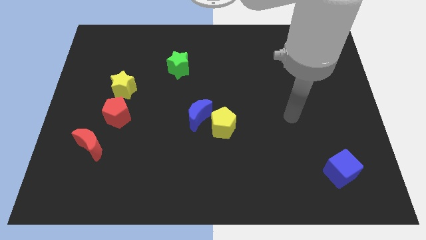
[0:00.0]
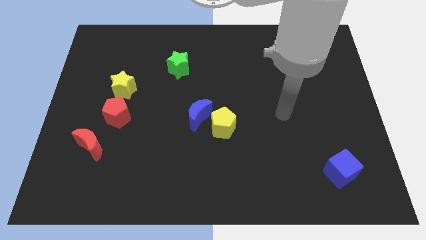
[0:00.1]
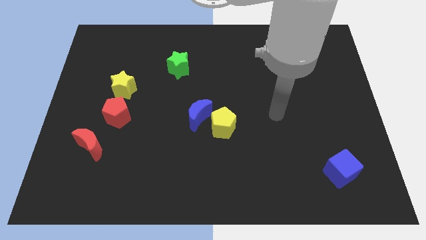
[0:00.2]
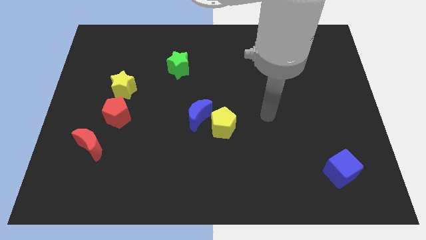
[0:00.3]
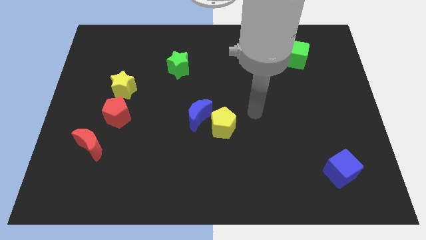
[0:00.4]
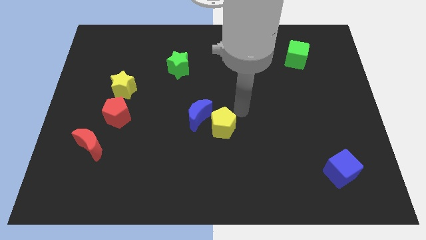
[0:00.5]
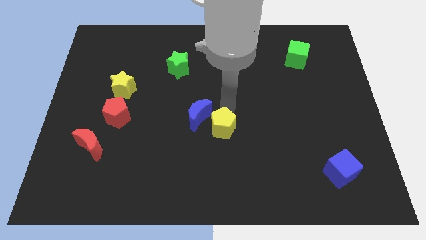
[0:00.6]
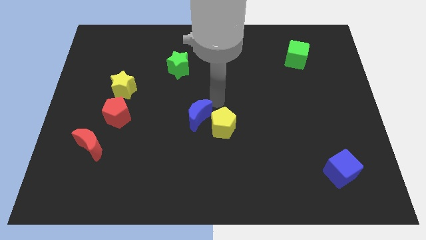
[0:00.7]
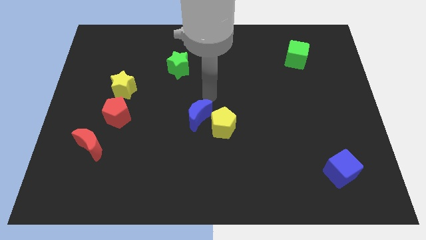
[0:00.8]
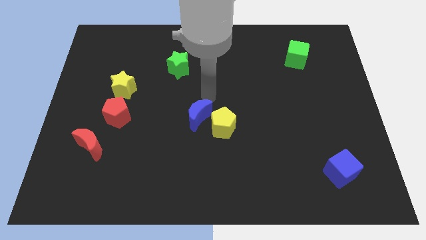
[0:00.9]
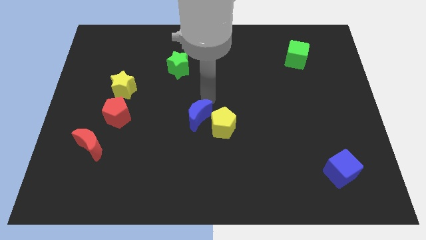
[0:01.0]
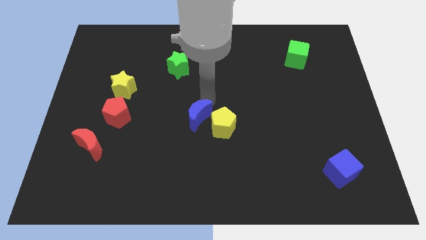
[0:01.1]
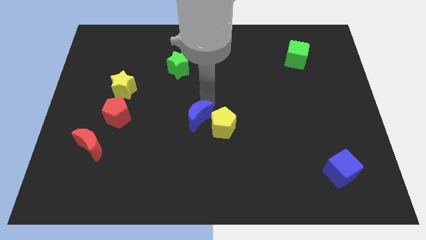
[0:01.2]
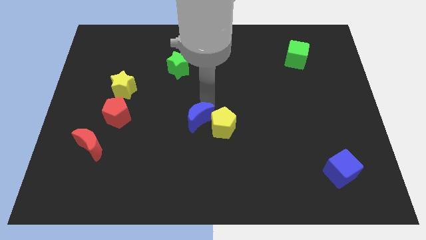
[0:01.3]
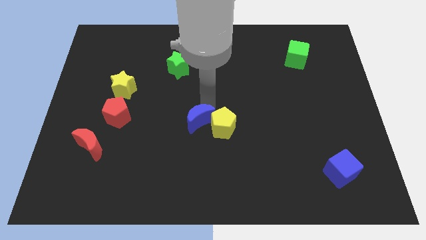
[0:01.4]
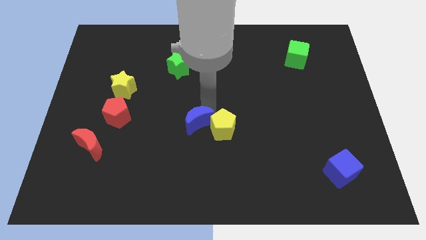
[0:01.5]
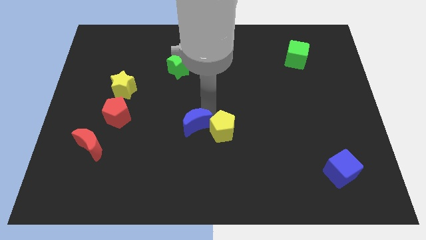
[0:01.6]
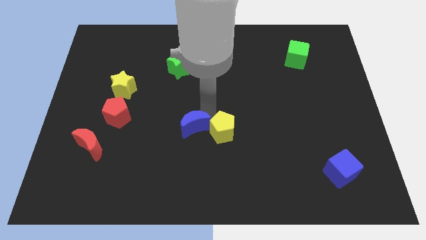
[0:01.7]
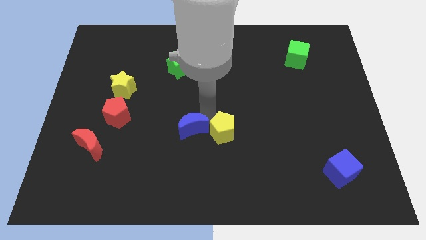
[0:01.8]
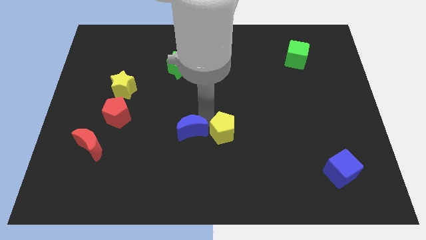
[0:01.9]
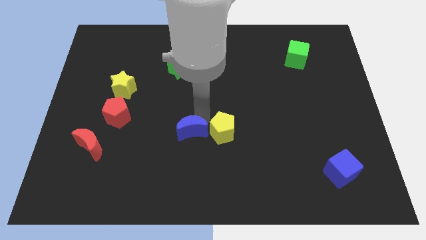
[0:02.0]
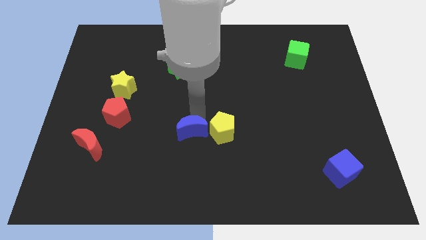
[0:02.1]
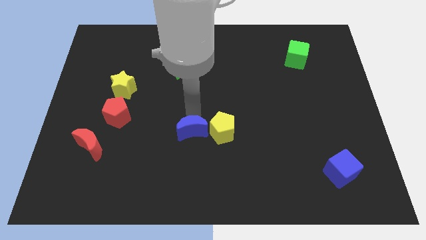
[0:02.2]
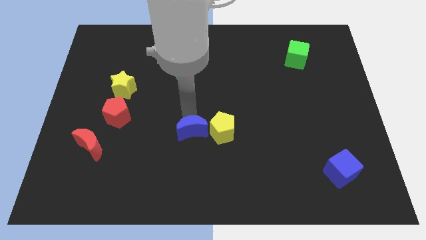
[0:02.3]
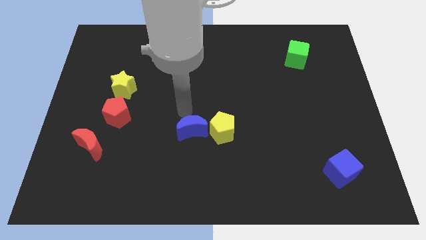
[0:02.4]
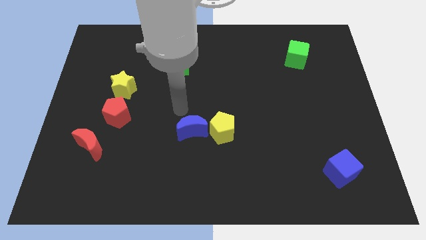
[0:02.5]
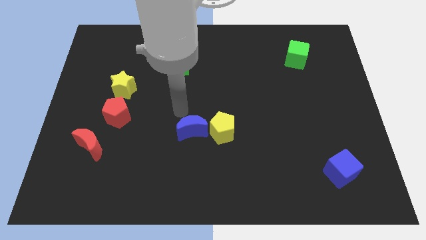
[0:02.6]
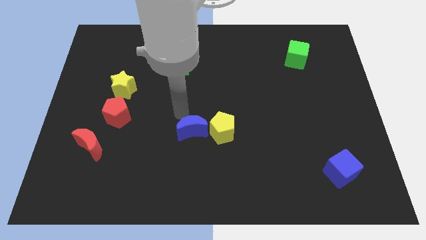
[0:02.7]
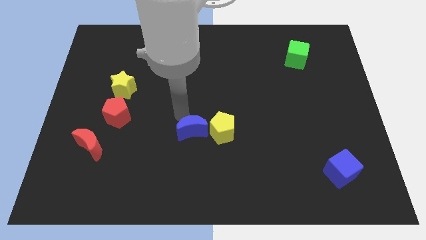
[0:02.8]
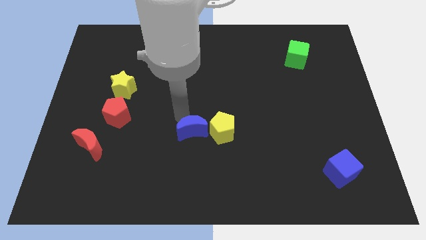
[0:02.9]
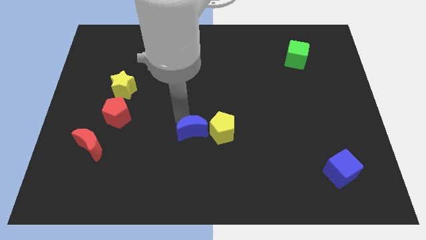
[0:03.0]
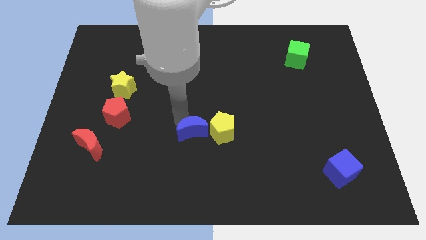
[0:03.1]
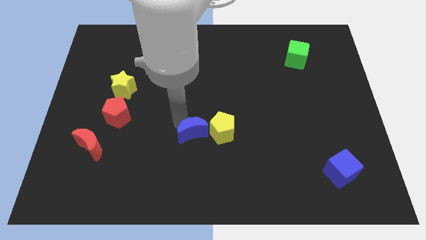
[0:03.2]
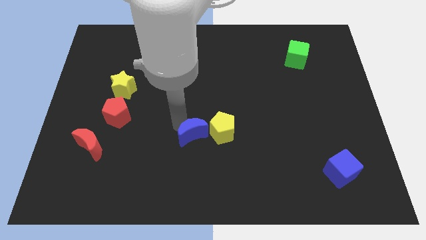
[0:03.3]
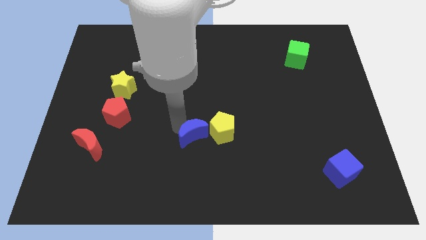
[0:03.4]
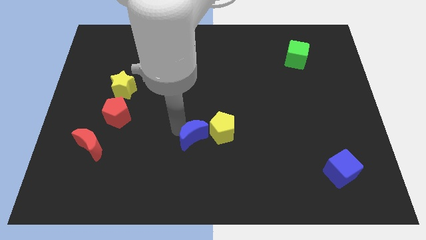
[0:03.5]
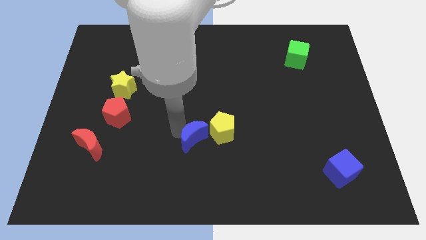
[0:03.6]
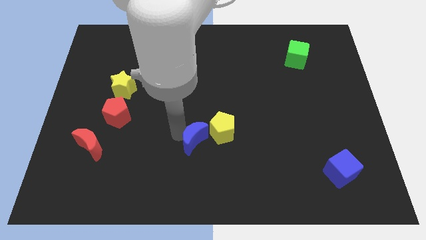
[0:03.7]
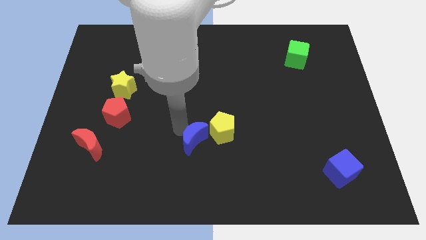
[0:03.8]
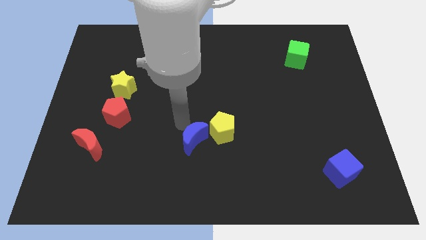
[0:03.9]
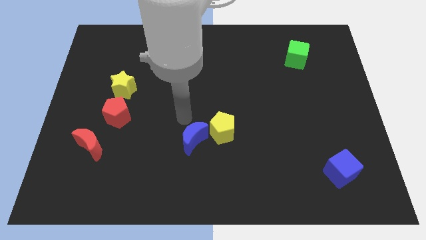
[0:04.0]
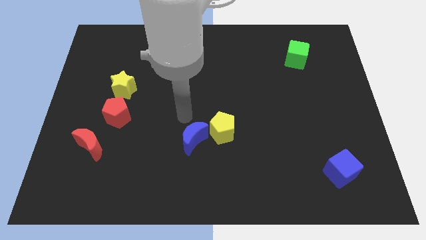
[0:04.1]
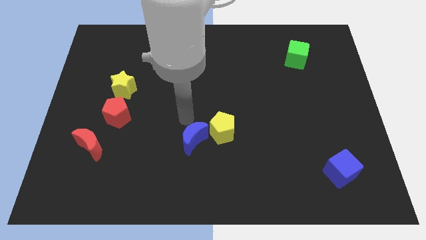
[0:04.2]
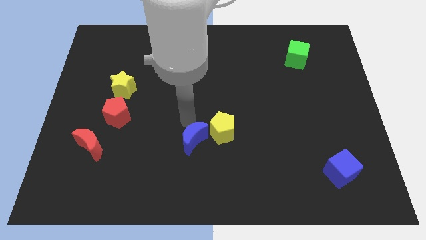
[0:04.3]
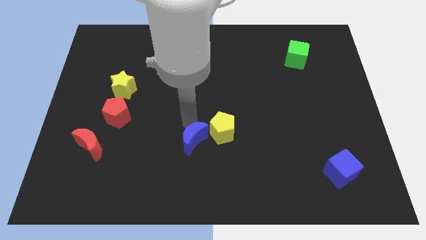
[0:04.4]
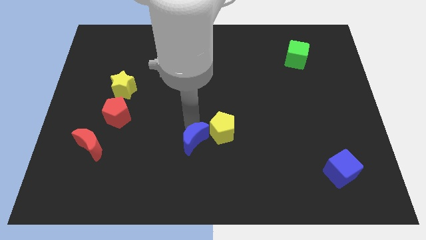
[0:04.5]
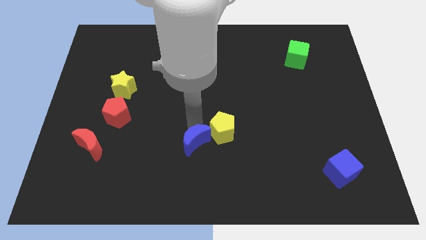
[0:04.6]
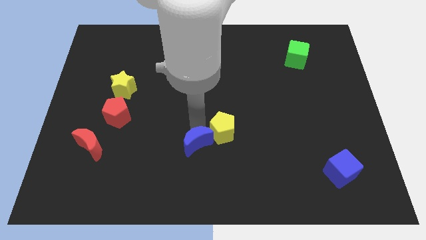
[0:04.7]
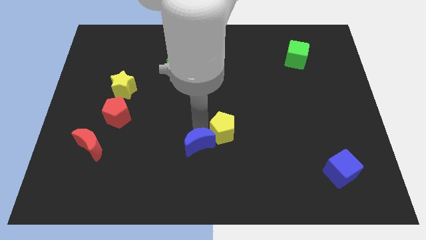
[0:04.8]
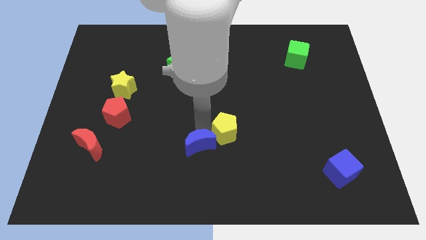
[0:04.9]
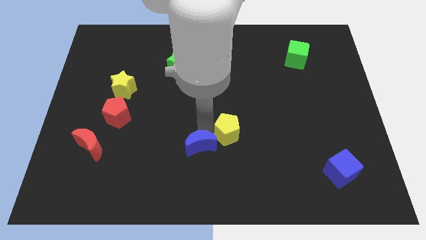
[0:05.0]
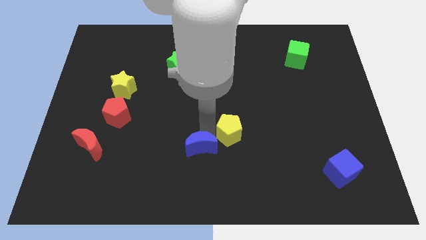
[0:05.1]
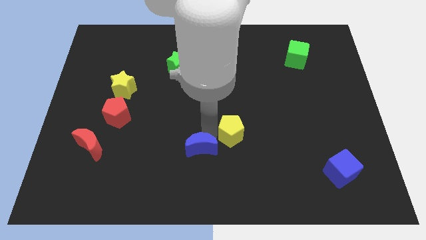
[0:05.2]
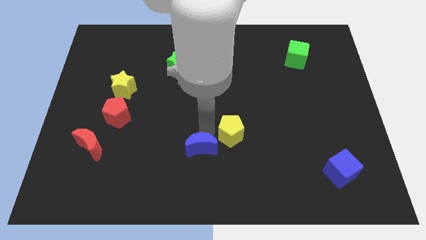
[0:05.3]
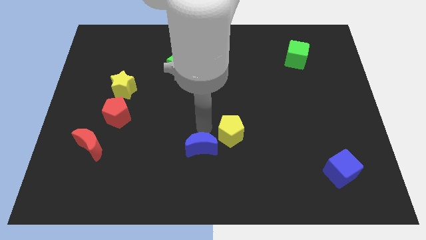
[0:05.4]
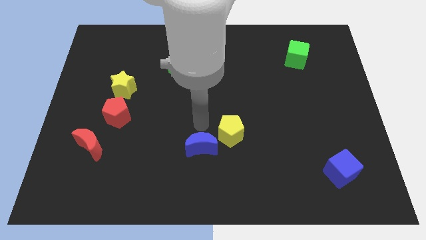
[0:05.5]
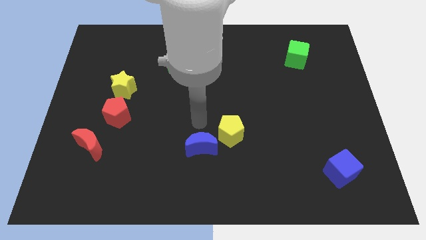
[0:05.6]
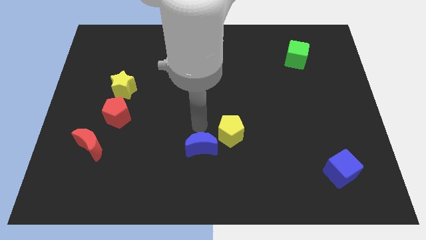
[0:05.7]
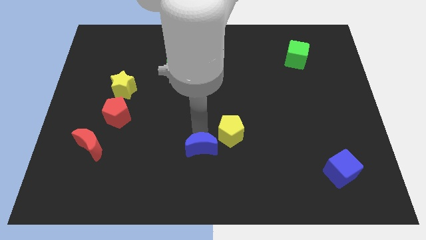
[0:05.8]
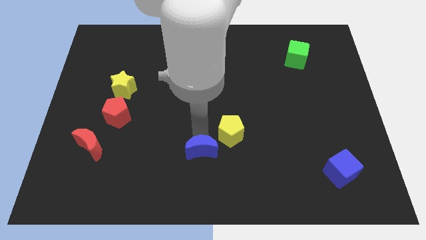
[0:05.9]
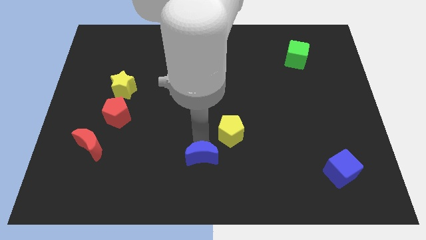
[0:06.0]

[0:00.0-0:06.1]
push the blue moon to the bottom

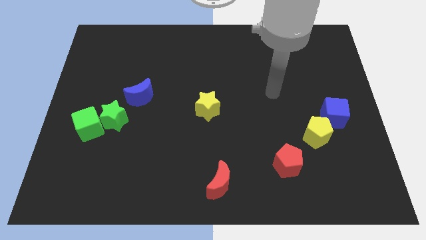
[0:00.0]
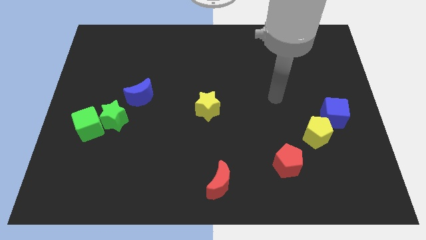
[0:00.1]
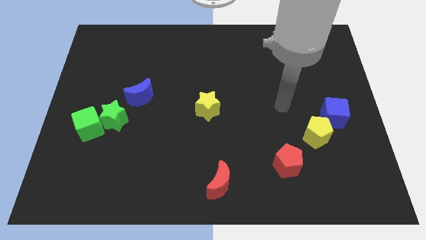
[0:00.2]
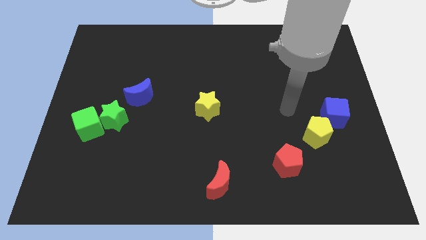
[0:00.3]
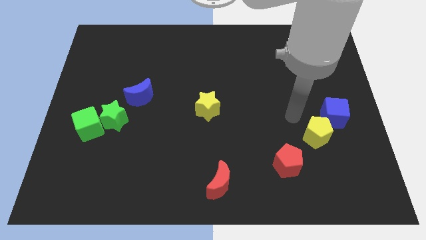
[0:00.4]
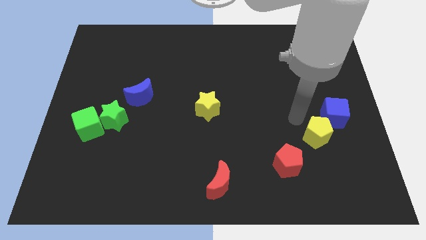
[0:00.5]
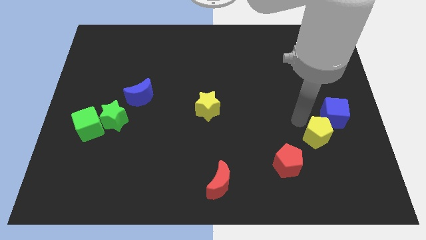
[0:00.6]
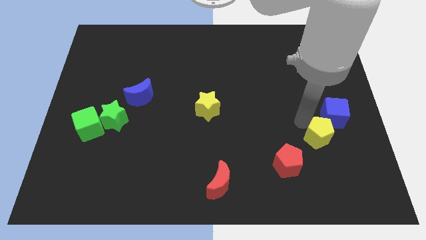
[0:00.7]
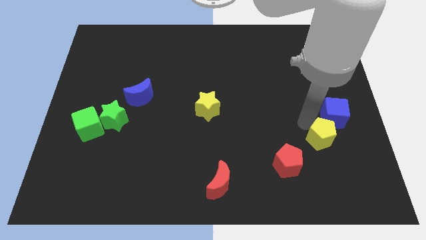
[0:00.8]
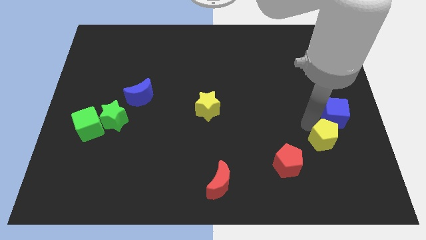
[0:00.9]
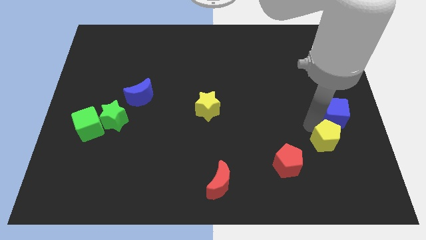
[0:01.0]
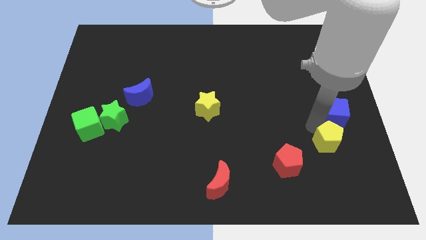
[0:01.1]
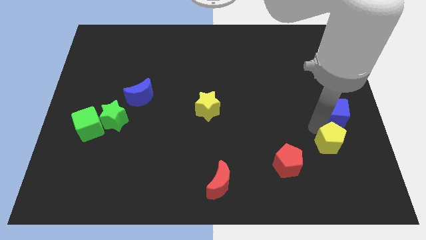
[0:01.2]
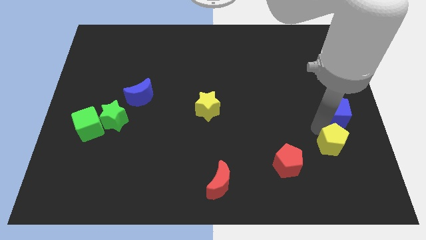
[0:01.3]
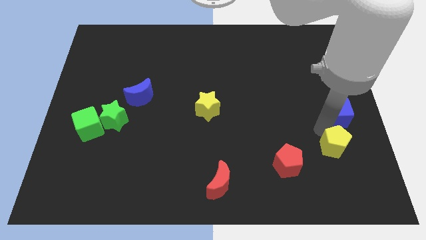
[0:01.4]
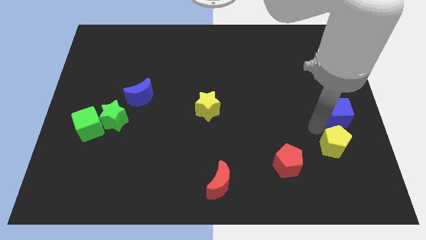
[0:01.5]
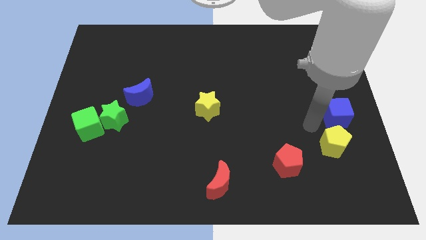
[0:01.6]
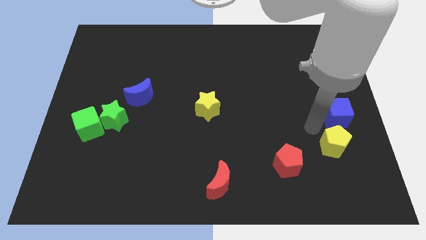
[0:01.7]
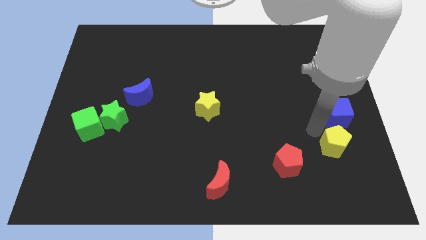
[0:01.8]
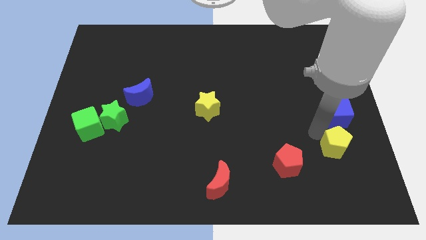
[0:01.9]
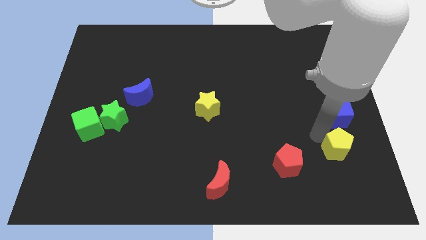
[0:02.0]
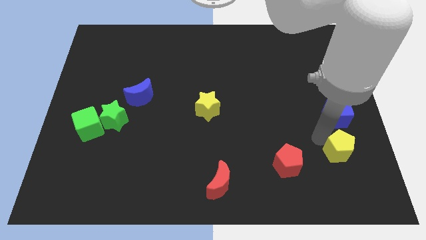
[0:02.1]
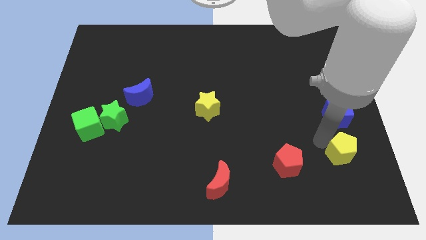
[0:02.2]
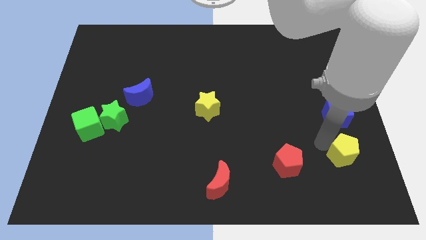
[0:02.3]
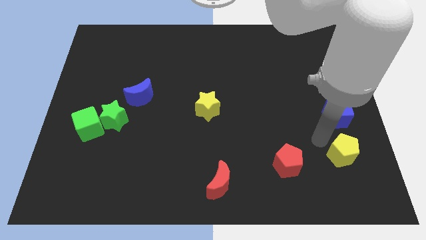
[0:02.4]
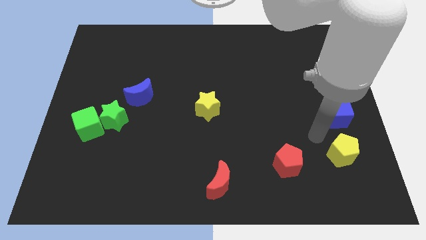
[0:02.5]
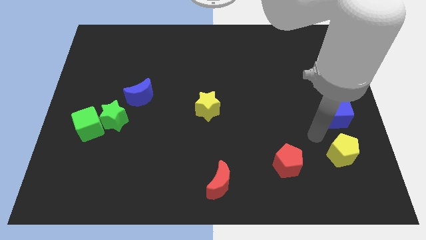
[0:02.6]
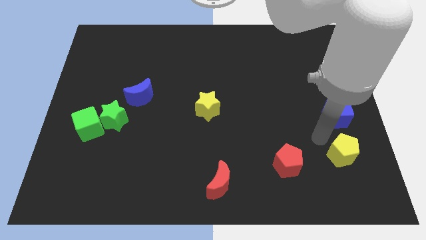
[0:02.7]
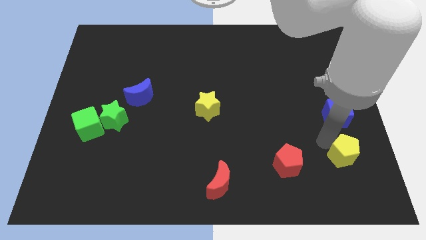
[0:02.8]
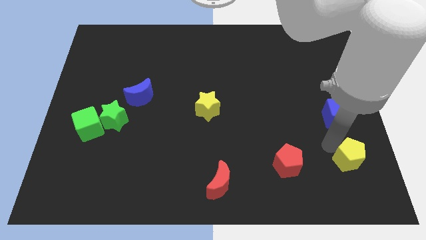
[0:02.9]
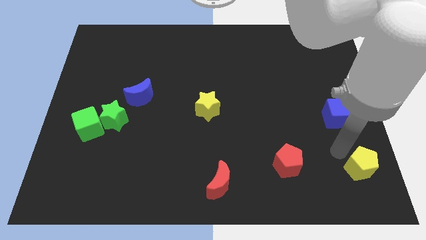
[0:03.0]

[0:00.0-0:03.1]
put the yellow pentagon to the bottom right of the board
